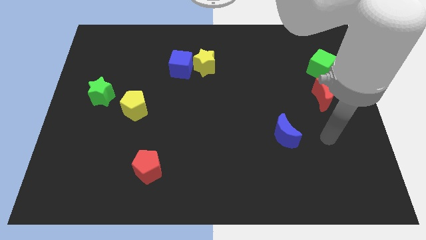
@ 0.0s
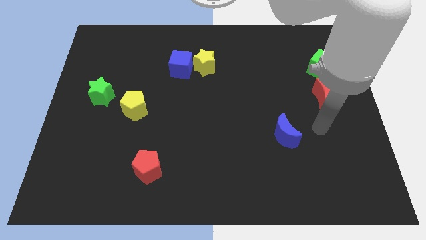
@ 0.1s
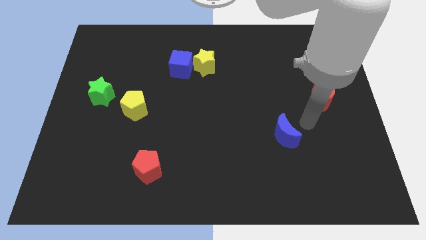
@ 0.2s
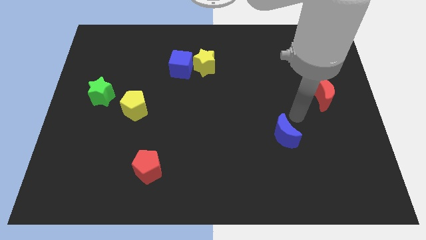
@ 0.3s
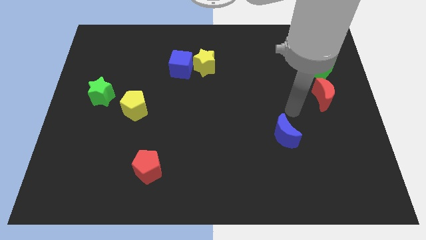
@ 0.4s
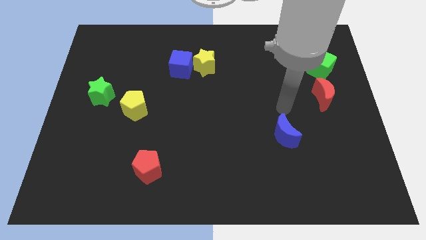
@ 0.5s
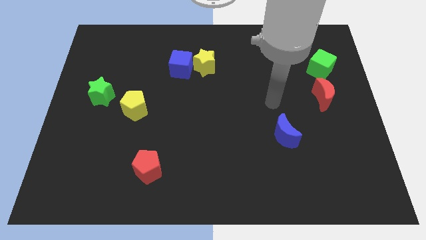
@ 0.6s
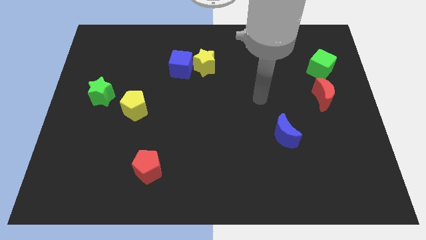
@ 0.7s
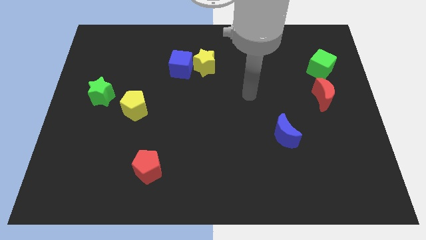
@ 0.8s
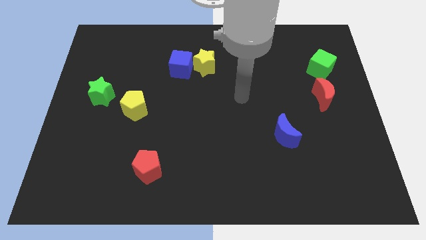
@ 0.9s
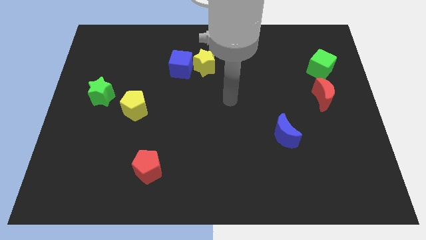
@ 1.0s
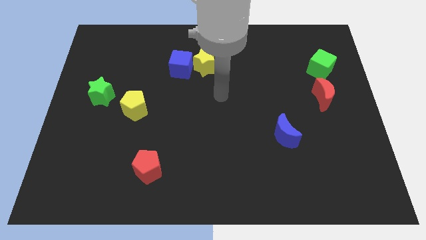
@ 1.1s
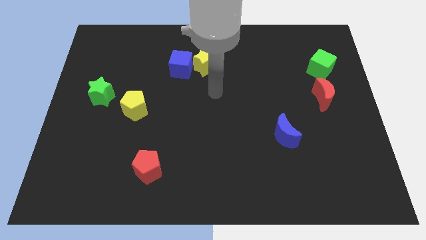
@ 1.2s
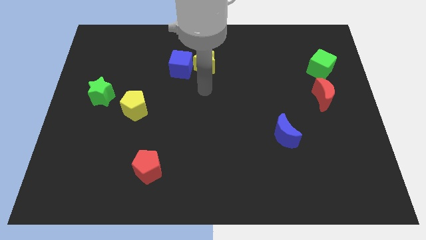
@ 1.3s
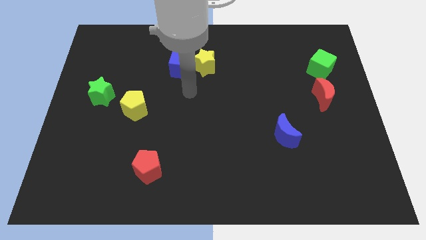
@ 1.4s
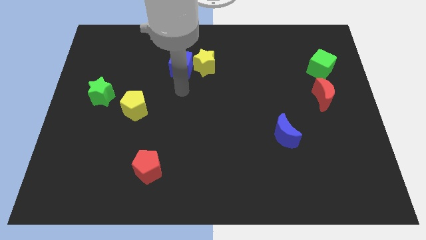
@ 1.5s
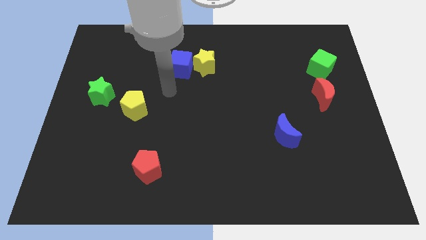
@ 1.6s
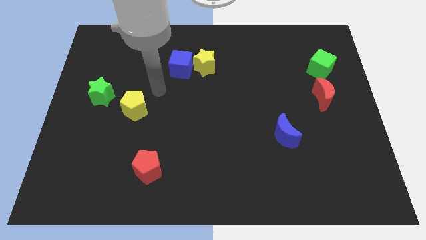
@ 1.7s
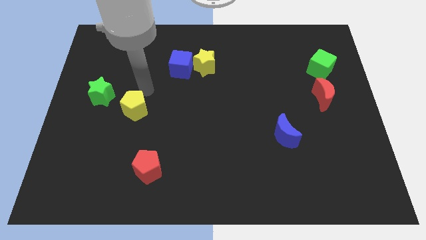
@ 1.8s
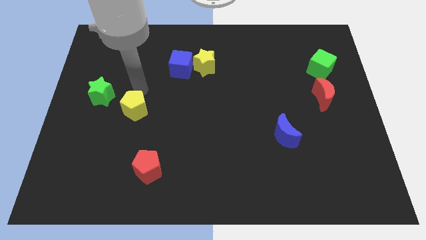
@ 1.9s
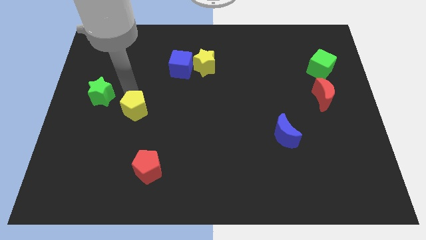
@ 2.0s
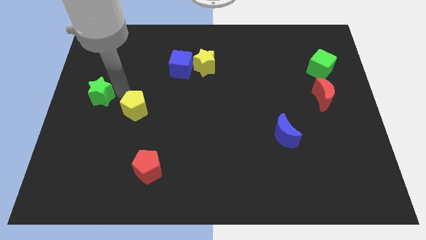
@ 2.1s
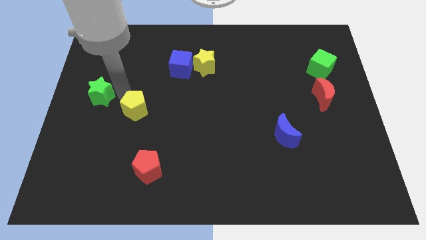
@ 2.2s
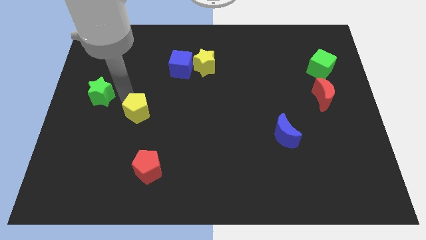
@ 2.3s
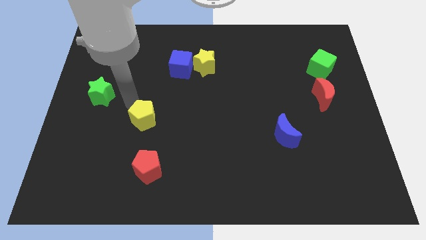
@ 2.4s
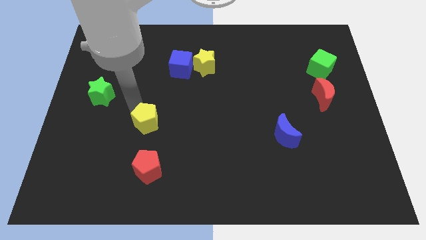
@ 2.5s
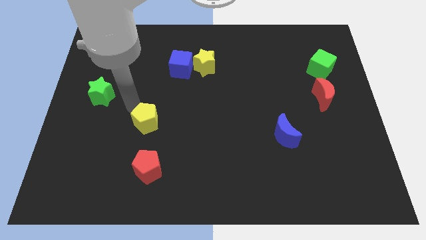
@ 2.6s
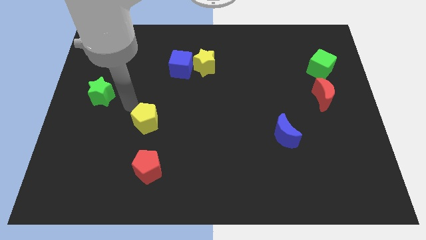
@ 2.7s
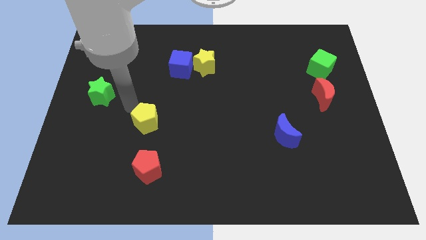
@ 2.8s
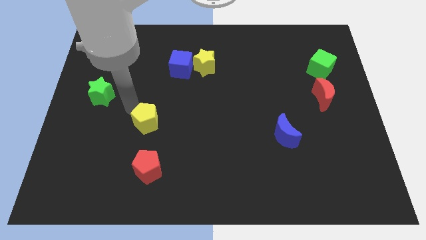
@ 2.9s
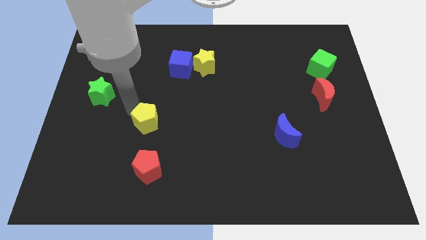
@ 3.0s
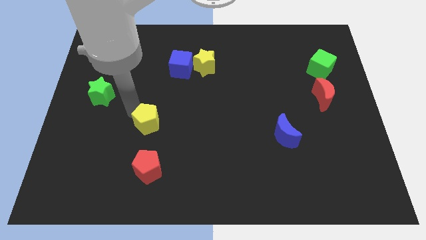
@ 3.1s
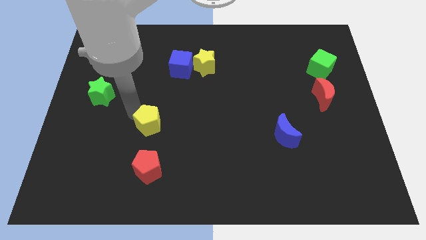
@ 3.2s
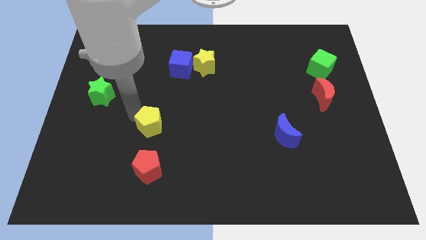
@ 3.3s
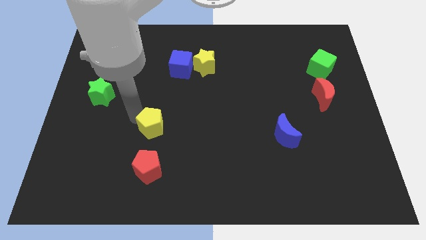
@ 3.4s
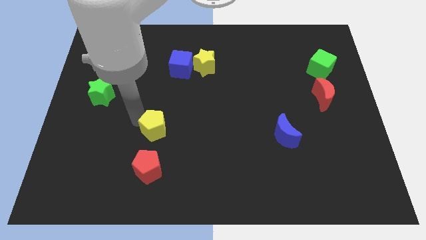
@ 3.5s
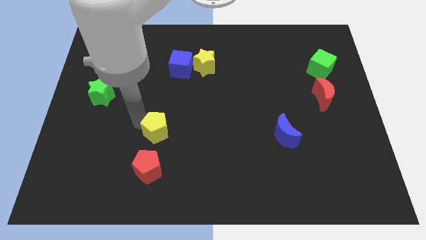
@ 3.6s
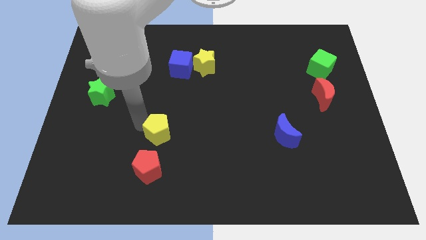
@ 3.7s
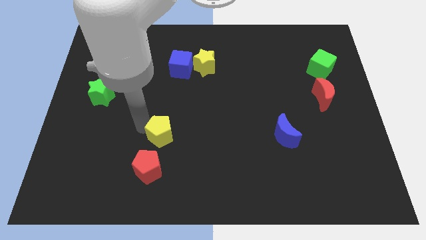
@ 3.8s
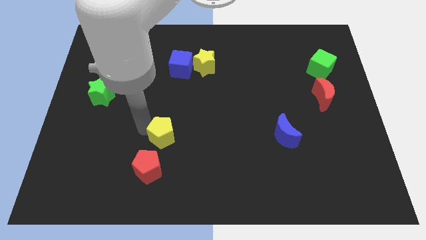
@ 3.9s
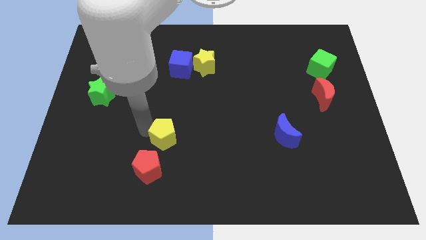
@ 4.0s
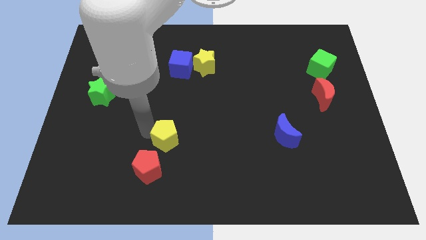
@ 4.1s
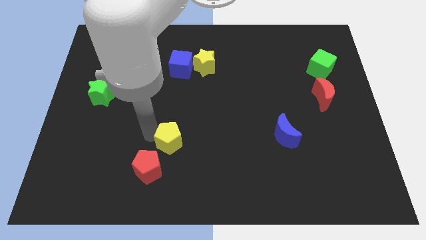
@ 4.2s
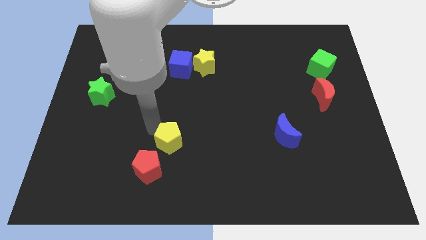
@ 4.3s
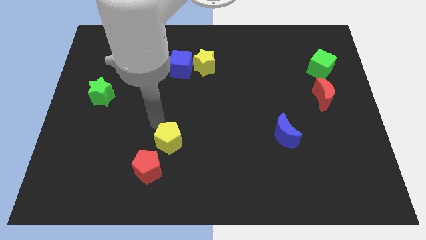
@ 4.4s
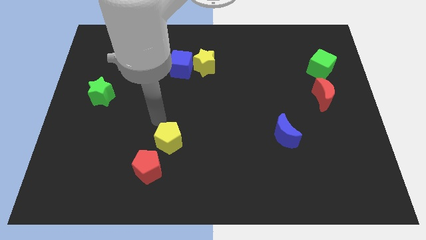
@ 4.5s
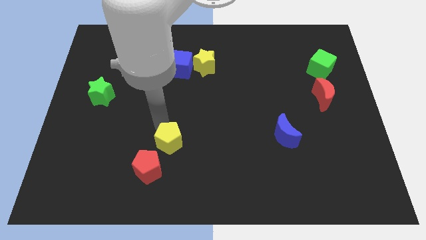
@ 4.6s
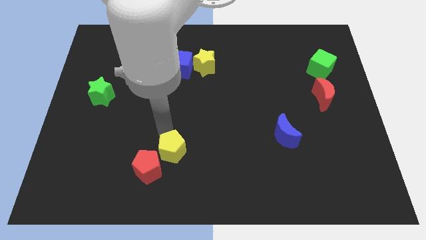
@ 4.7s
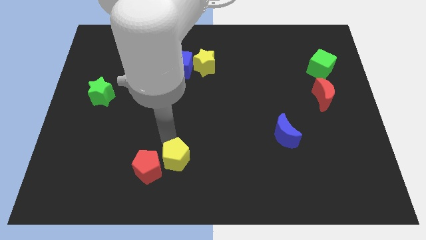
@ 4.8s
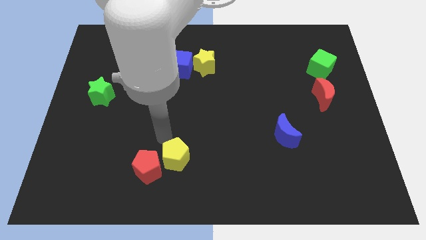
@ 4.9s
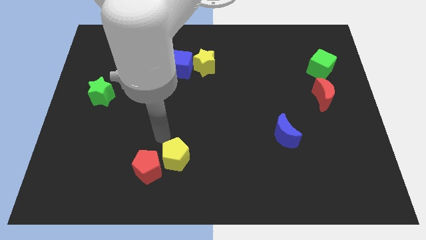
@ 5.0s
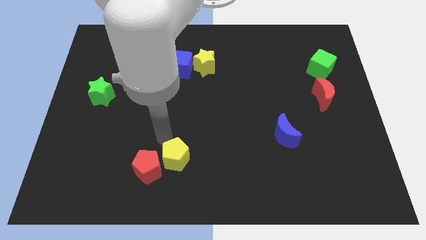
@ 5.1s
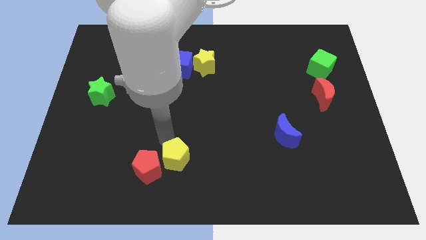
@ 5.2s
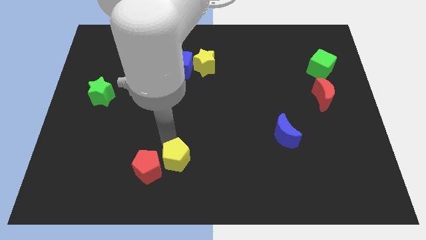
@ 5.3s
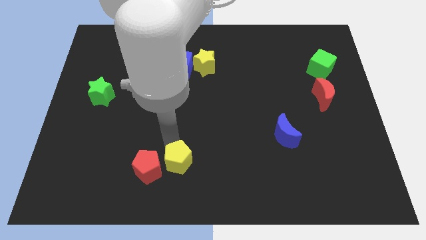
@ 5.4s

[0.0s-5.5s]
slide the yellow pentagon to the bottom side

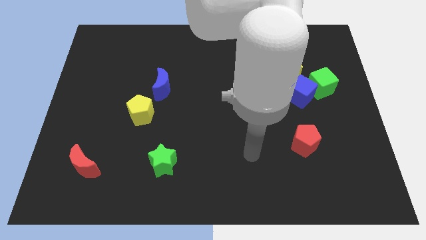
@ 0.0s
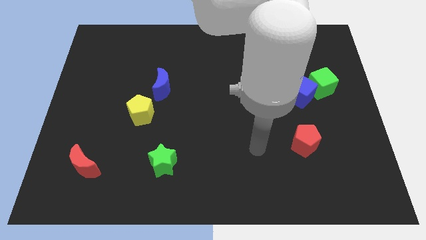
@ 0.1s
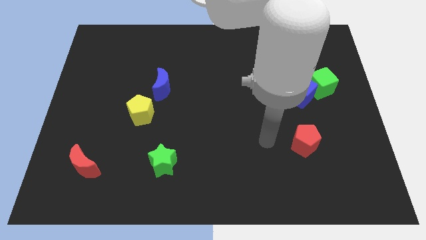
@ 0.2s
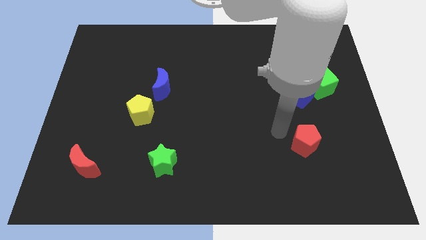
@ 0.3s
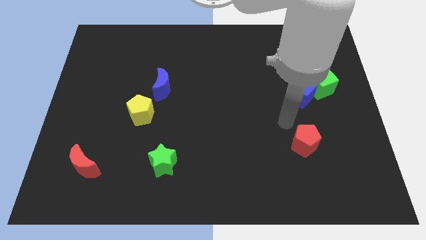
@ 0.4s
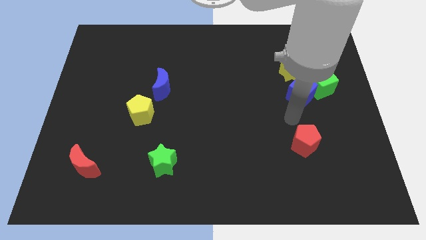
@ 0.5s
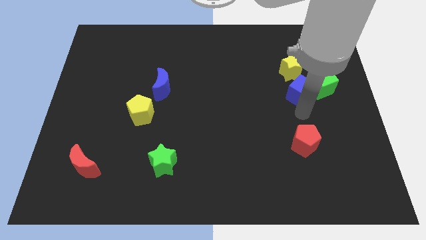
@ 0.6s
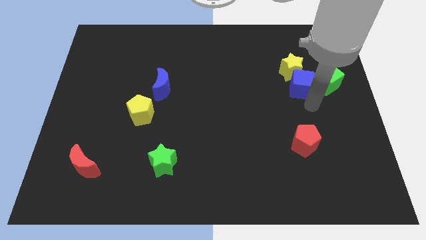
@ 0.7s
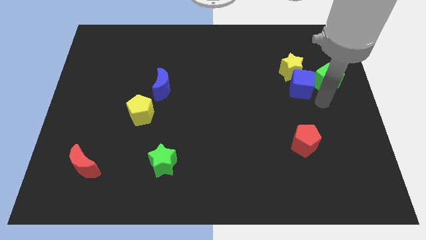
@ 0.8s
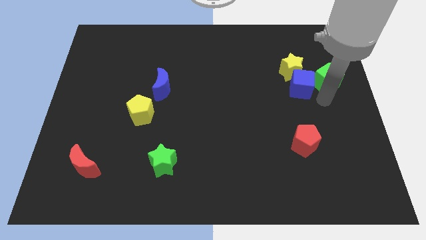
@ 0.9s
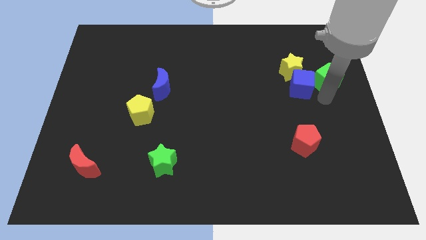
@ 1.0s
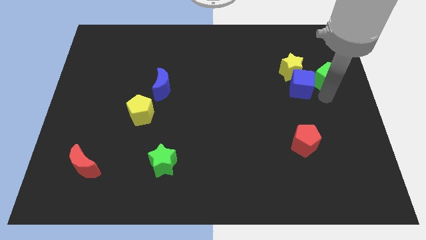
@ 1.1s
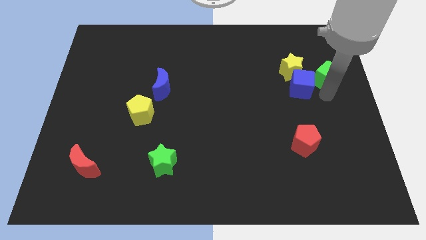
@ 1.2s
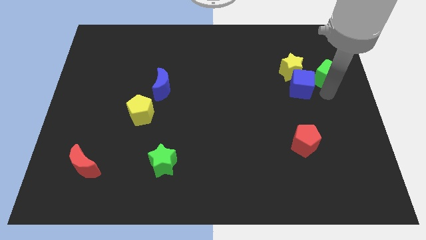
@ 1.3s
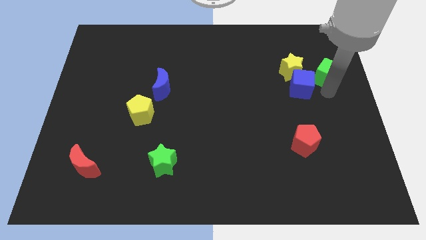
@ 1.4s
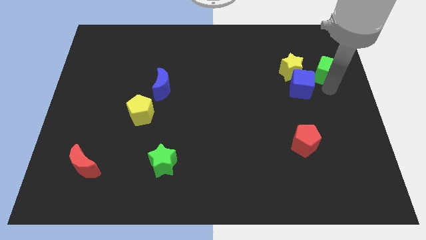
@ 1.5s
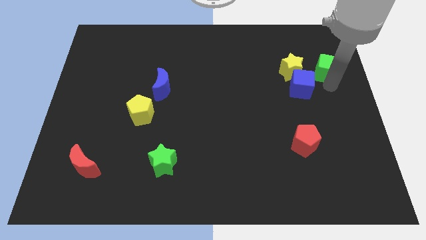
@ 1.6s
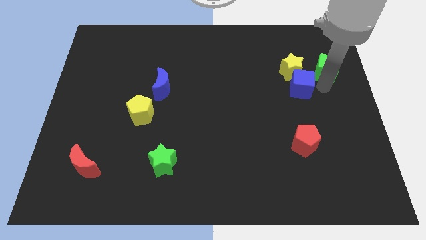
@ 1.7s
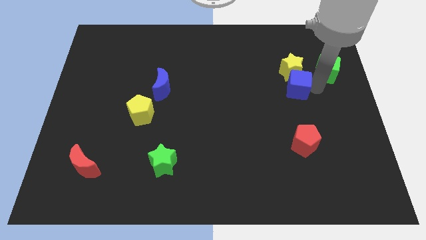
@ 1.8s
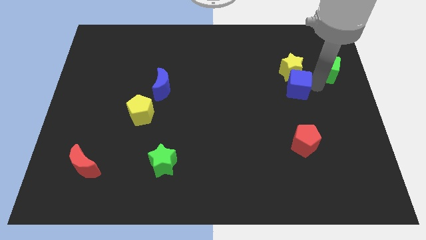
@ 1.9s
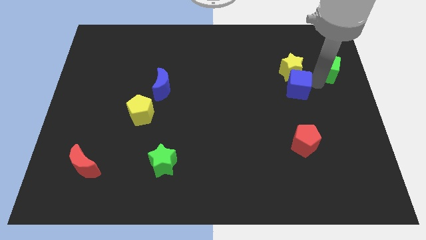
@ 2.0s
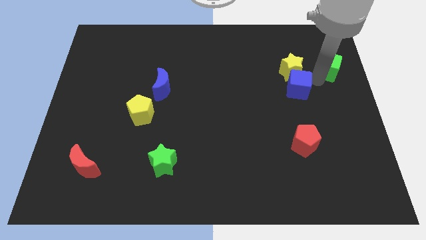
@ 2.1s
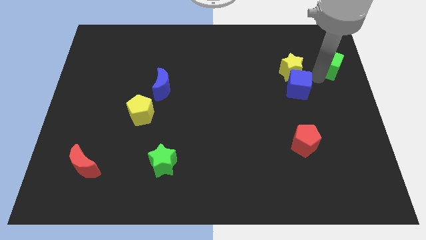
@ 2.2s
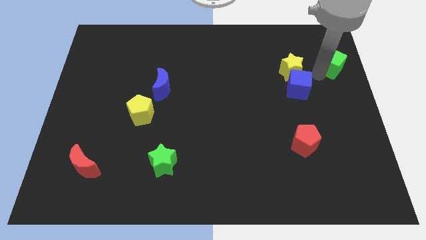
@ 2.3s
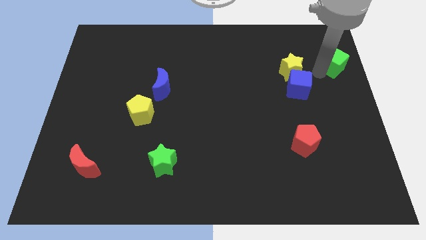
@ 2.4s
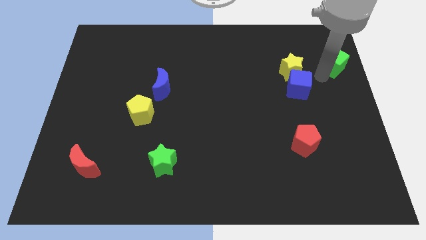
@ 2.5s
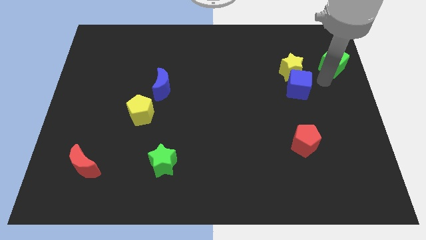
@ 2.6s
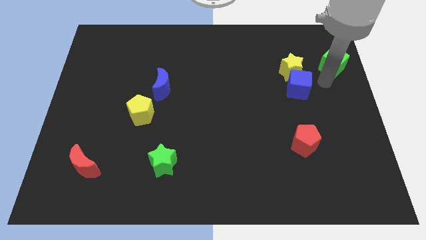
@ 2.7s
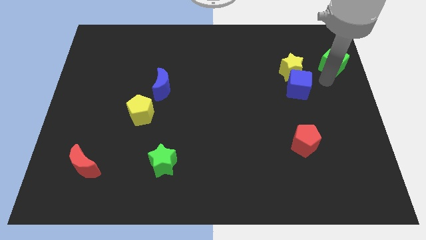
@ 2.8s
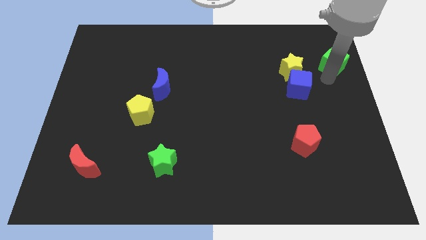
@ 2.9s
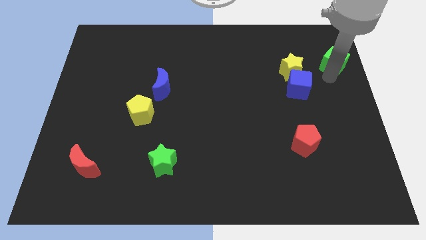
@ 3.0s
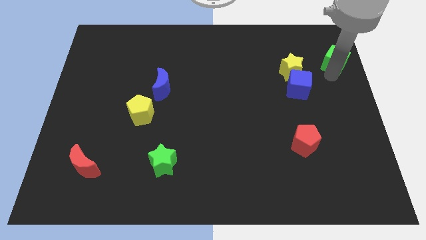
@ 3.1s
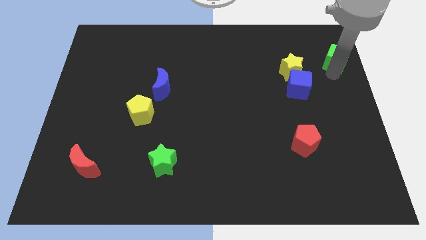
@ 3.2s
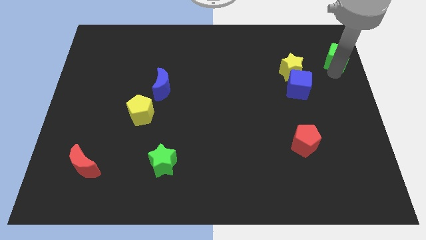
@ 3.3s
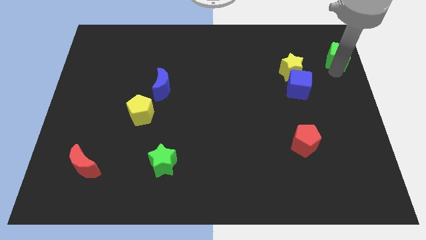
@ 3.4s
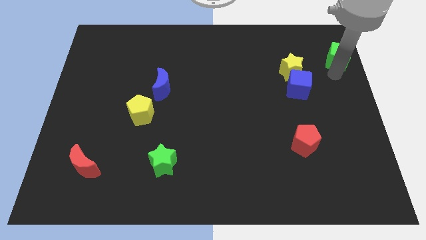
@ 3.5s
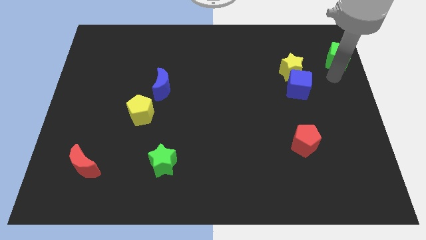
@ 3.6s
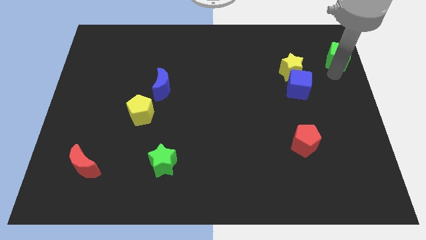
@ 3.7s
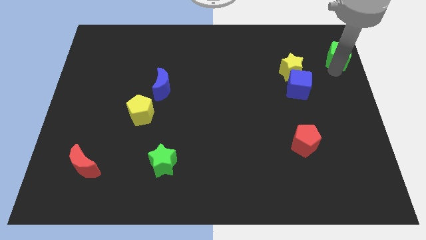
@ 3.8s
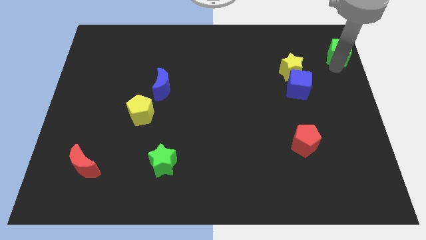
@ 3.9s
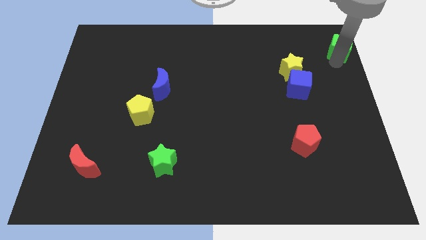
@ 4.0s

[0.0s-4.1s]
slide the green cube to the top right of the board
